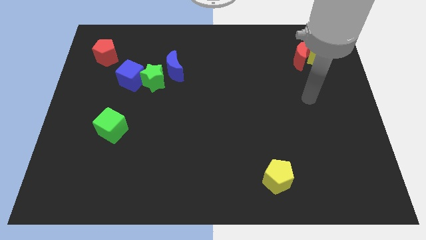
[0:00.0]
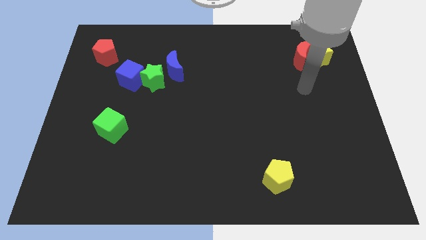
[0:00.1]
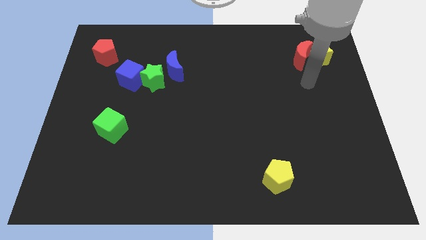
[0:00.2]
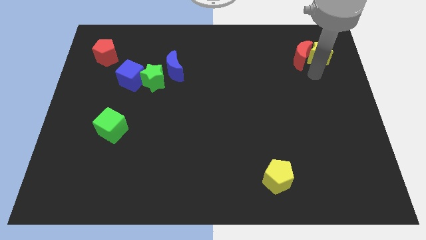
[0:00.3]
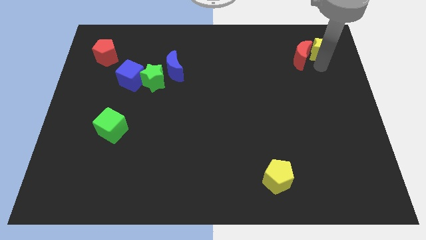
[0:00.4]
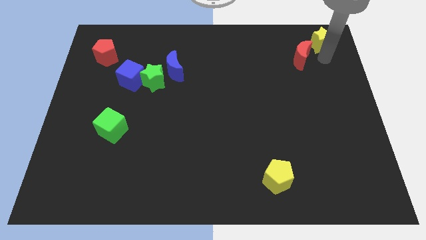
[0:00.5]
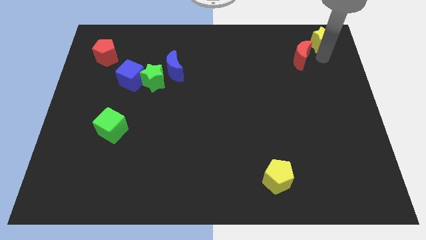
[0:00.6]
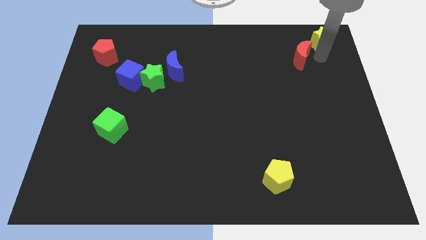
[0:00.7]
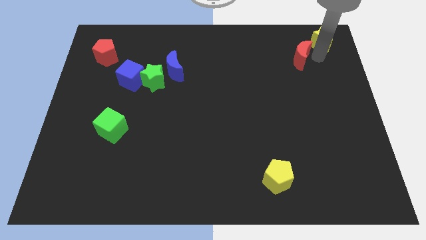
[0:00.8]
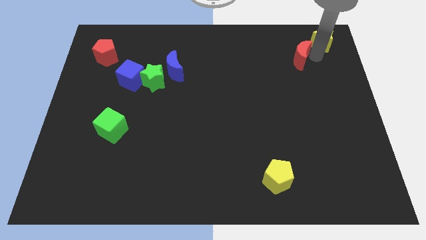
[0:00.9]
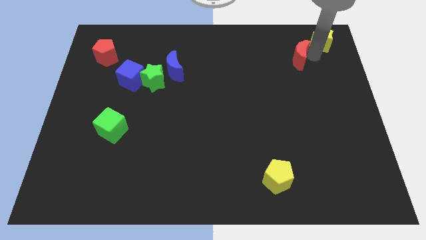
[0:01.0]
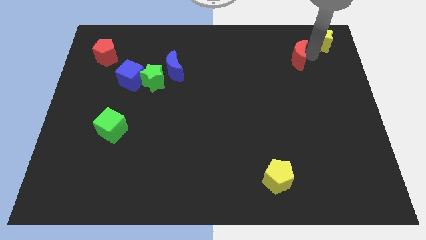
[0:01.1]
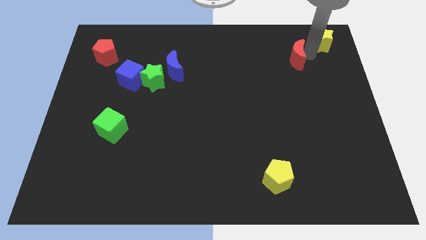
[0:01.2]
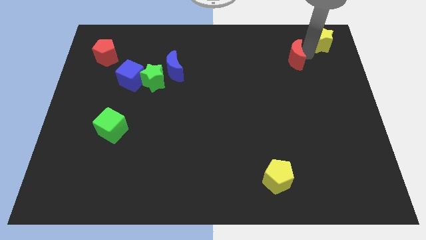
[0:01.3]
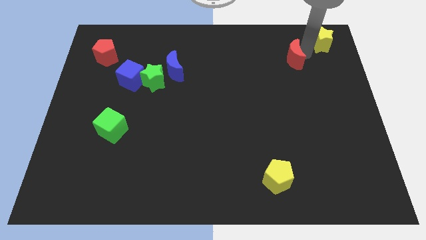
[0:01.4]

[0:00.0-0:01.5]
pull the red moon apart from the yellow star

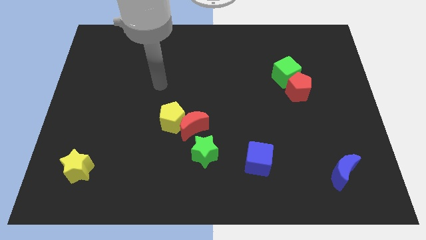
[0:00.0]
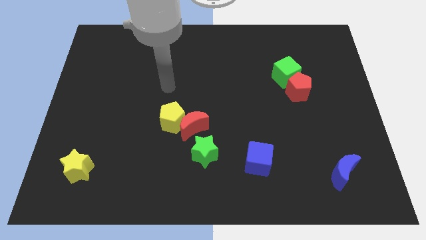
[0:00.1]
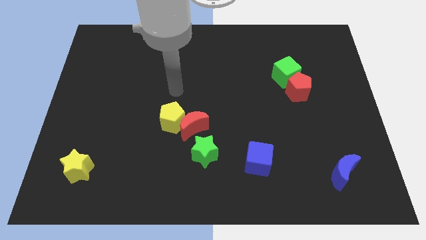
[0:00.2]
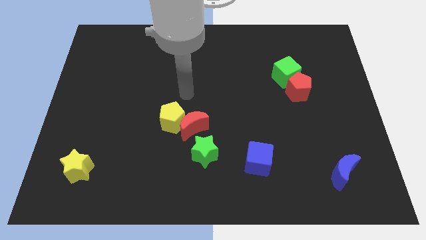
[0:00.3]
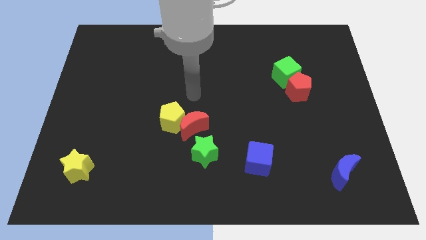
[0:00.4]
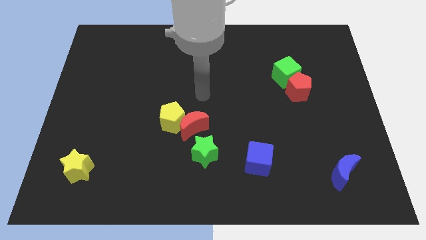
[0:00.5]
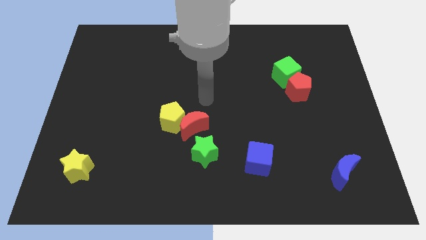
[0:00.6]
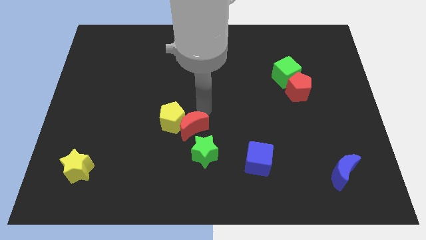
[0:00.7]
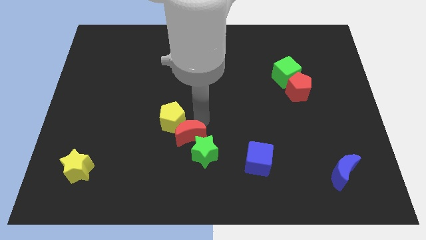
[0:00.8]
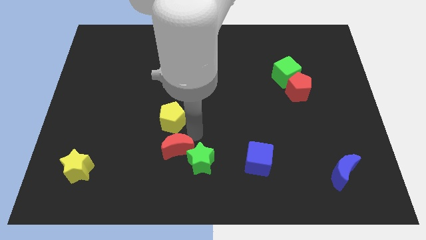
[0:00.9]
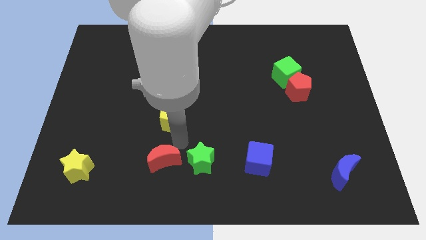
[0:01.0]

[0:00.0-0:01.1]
move the yellow pentagon away from the red moon

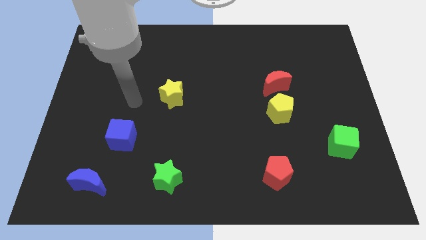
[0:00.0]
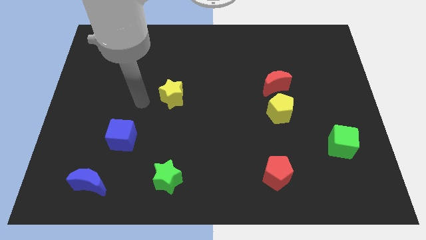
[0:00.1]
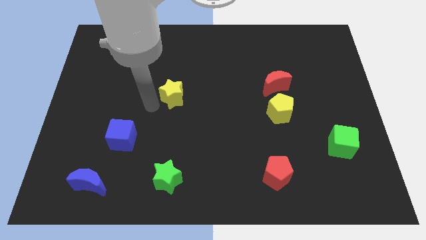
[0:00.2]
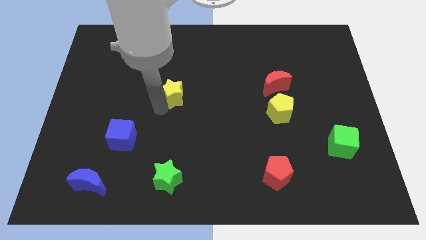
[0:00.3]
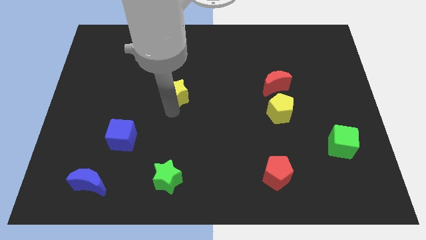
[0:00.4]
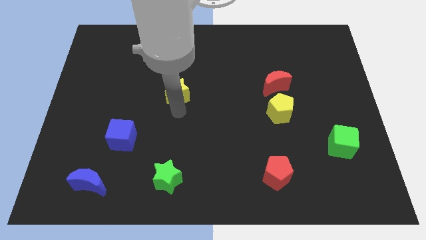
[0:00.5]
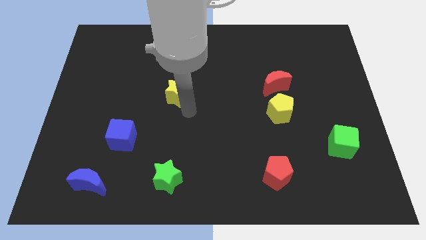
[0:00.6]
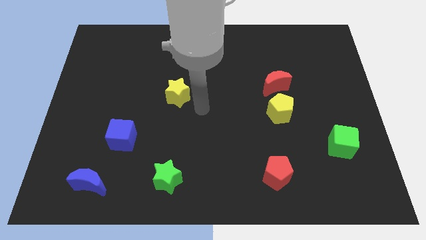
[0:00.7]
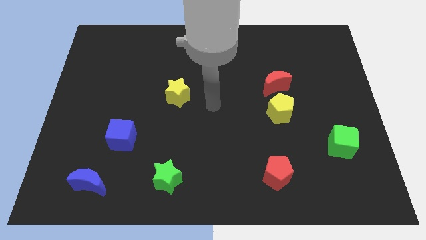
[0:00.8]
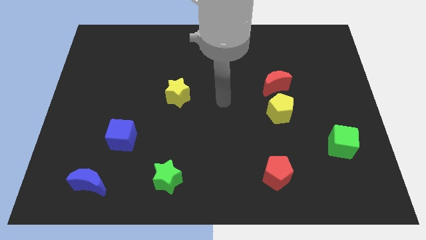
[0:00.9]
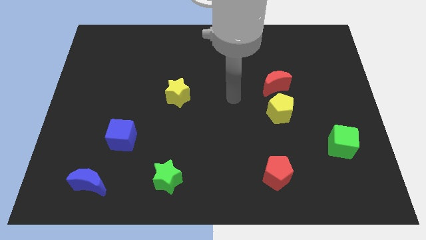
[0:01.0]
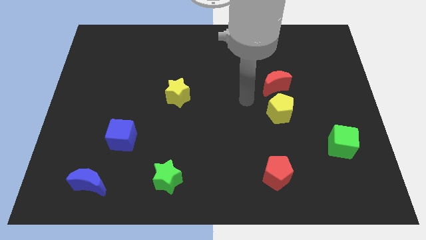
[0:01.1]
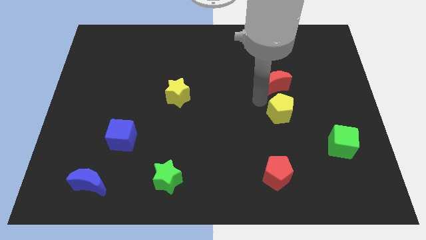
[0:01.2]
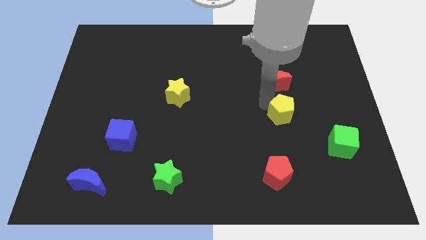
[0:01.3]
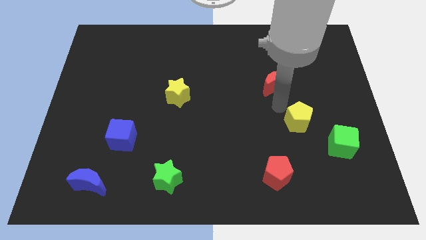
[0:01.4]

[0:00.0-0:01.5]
pull the red moon apart from the yellow pentagon

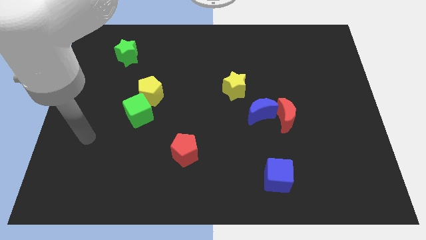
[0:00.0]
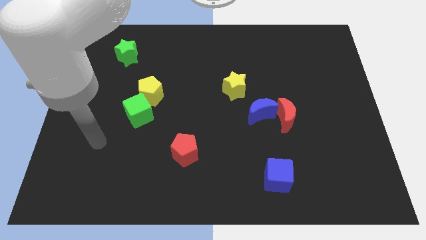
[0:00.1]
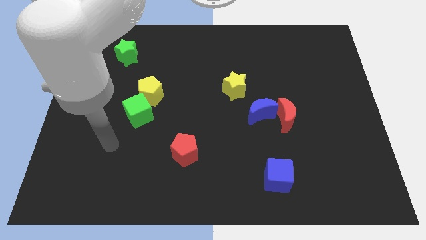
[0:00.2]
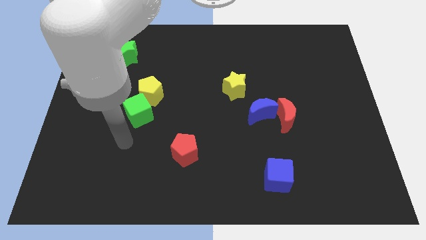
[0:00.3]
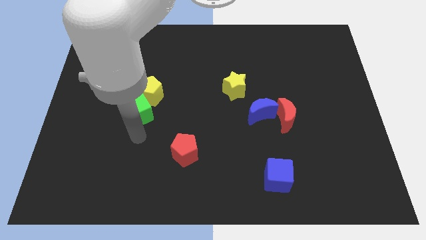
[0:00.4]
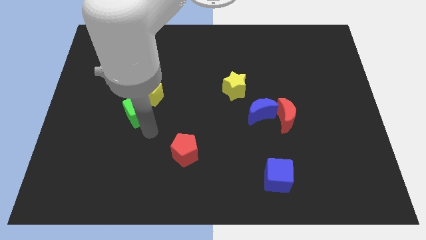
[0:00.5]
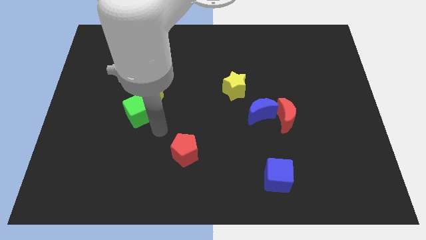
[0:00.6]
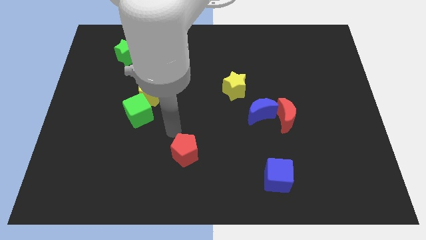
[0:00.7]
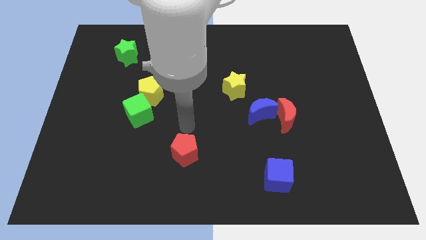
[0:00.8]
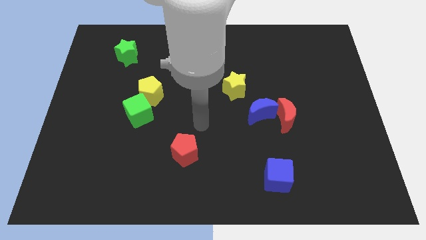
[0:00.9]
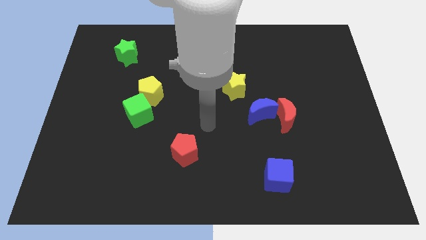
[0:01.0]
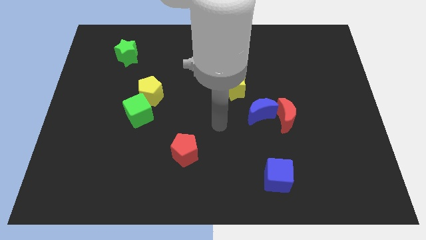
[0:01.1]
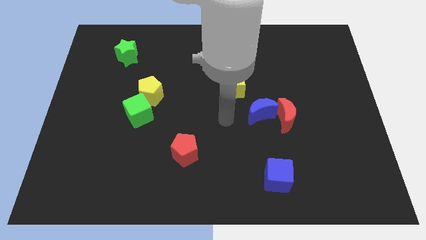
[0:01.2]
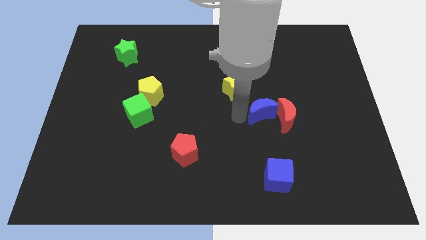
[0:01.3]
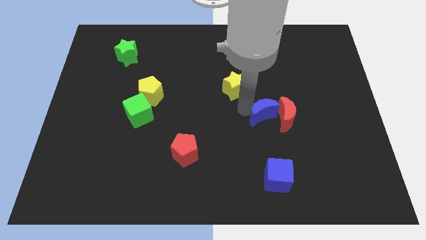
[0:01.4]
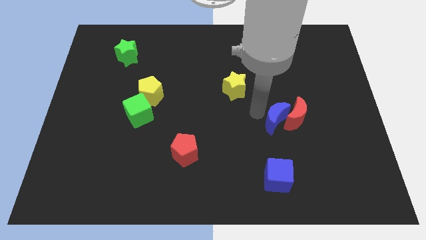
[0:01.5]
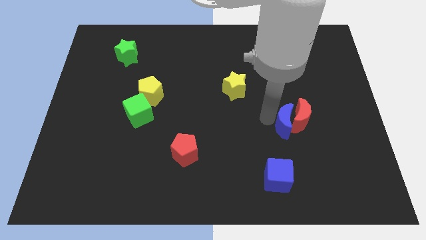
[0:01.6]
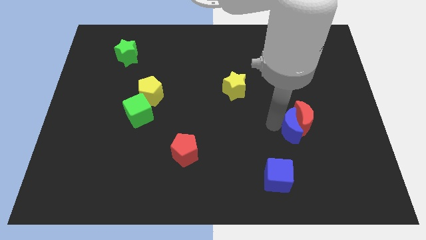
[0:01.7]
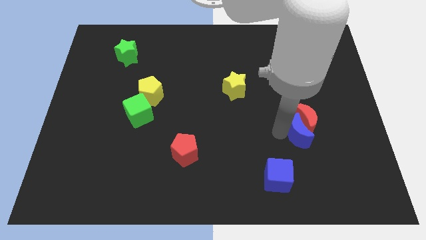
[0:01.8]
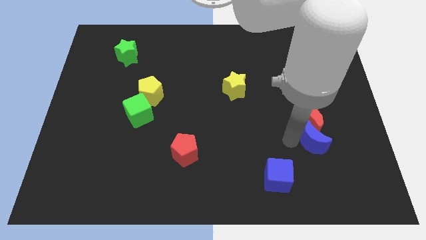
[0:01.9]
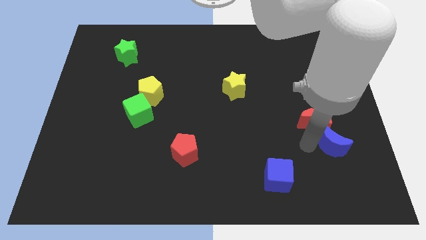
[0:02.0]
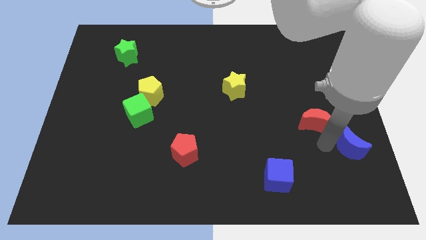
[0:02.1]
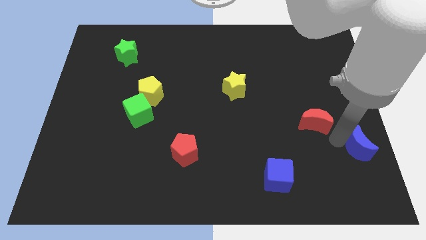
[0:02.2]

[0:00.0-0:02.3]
pull the red moon apart from the blue moon

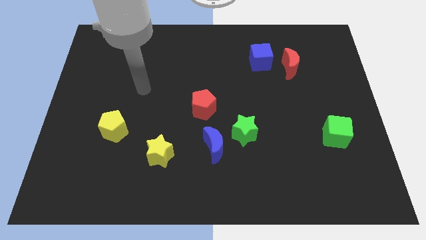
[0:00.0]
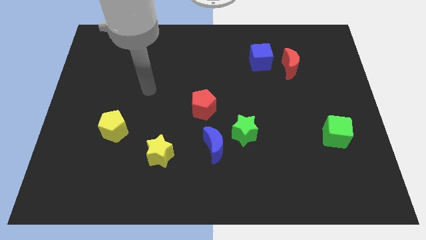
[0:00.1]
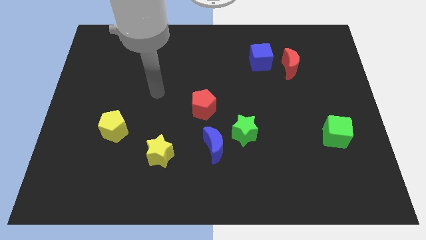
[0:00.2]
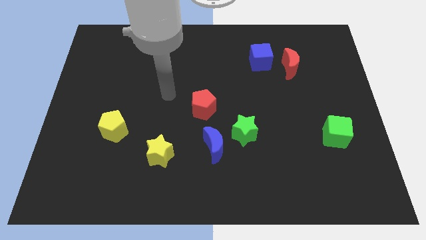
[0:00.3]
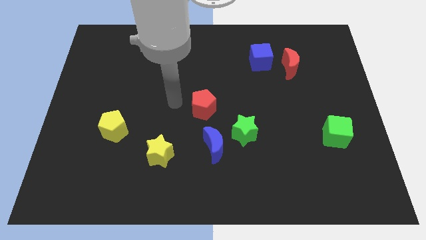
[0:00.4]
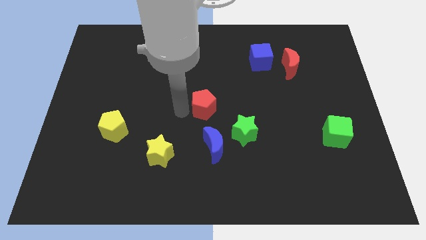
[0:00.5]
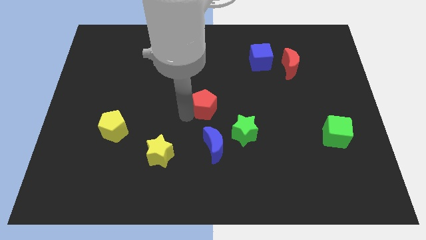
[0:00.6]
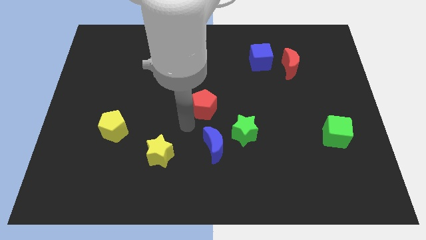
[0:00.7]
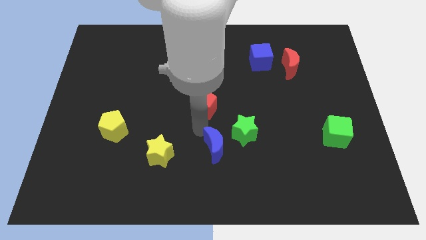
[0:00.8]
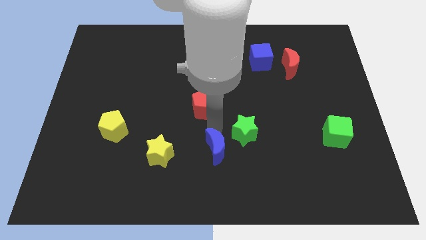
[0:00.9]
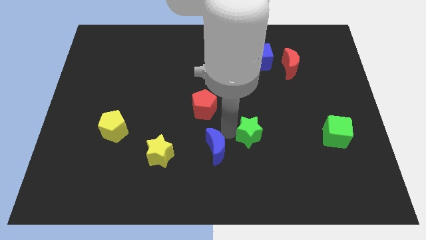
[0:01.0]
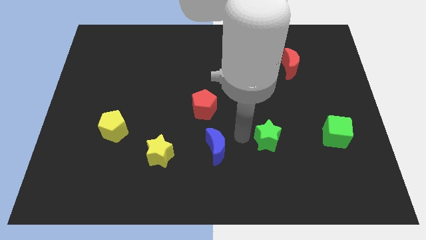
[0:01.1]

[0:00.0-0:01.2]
pull the blue moon apart from the green star

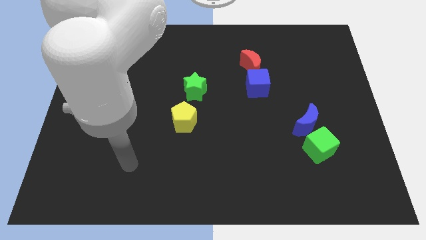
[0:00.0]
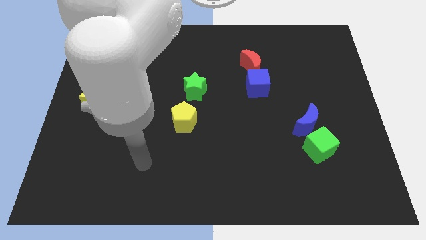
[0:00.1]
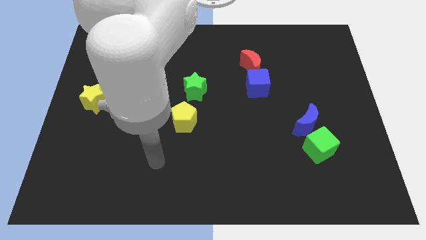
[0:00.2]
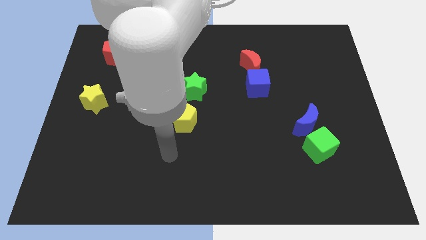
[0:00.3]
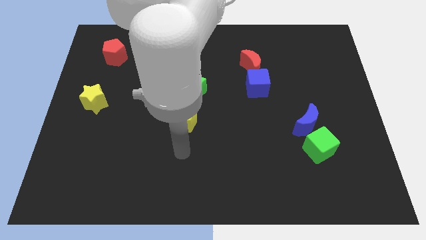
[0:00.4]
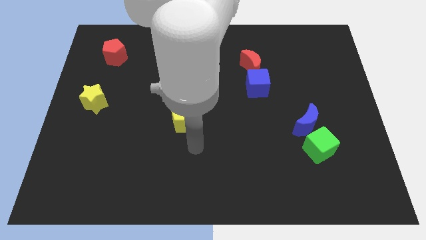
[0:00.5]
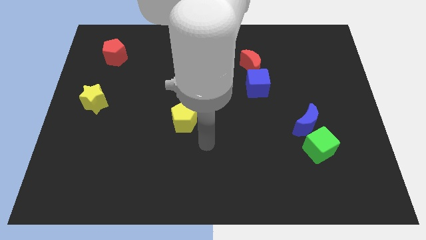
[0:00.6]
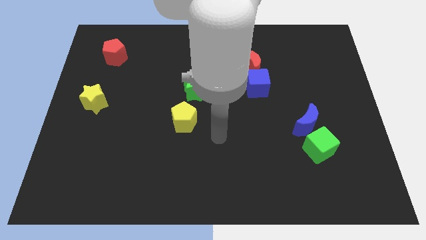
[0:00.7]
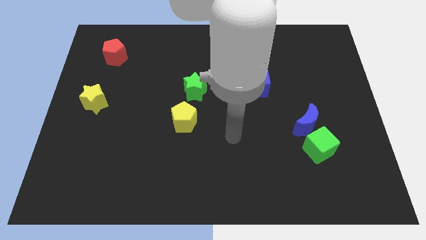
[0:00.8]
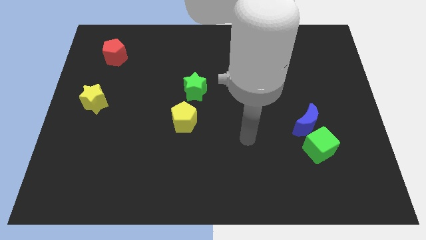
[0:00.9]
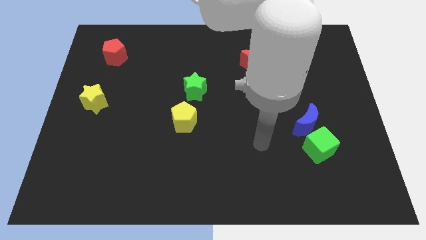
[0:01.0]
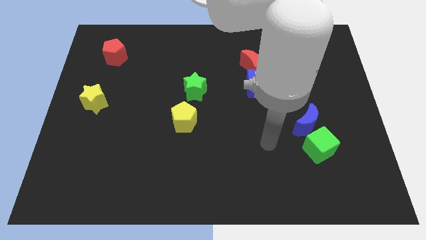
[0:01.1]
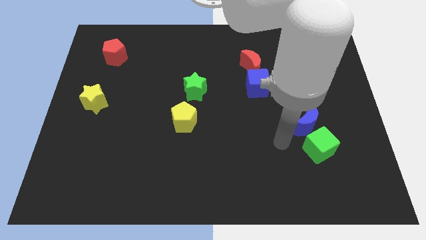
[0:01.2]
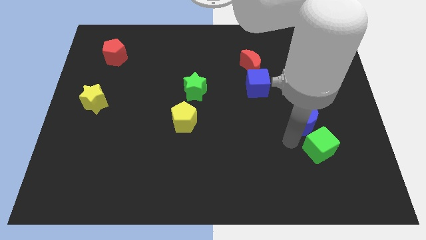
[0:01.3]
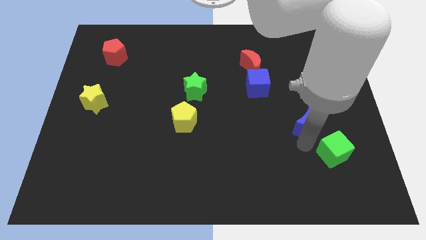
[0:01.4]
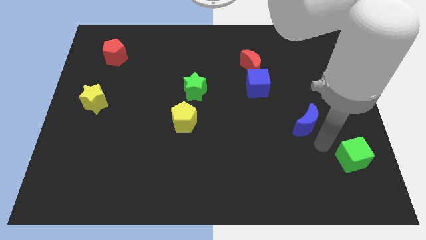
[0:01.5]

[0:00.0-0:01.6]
pull the blue moon apart from the green cube

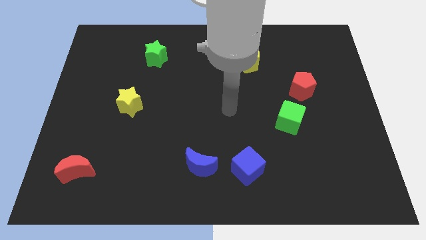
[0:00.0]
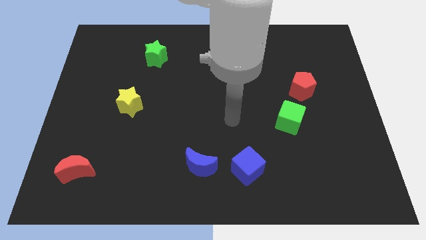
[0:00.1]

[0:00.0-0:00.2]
pull the blue moon apart from the blue cube
